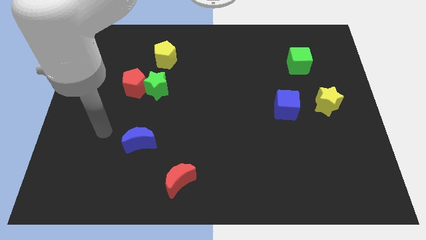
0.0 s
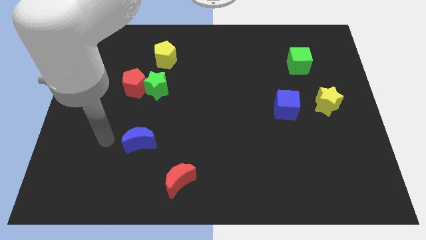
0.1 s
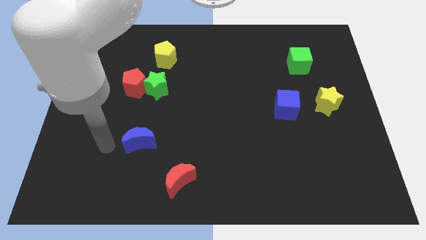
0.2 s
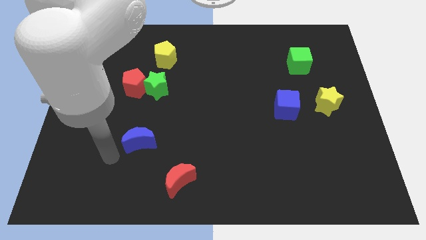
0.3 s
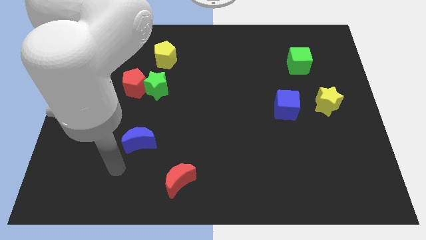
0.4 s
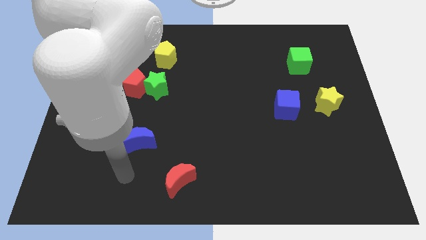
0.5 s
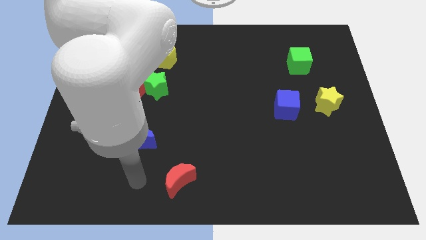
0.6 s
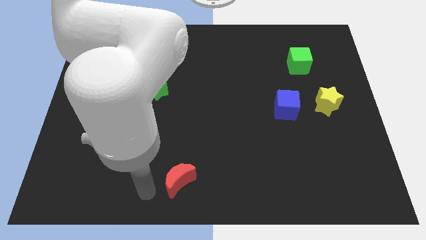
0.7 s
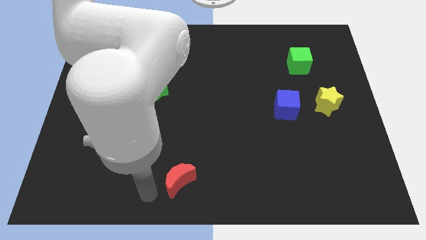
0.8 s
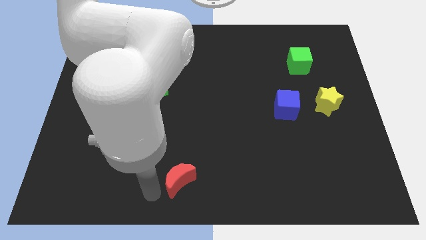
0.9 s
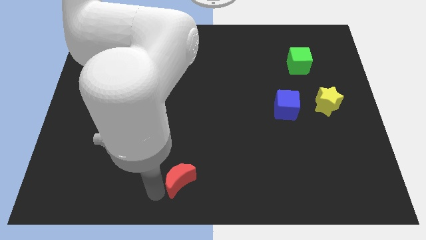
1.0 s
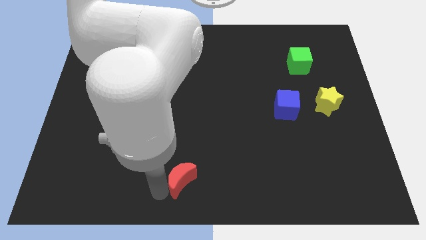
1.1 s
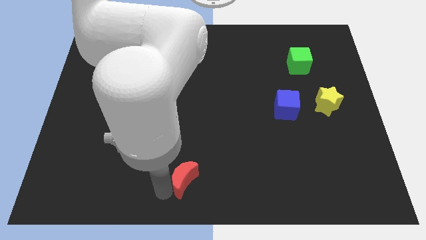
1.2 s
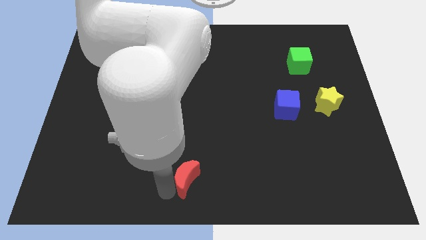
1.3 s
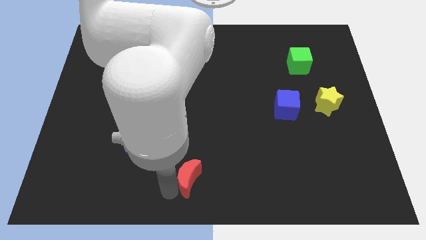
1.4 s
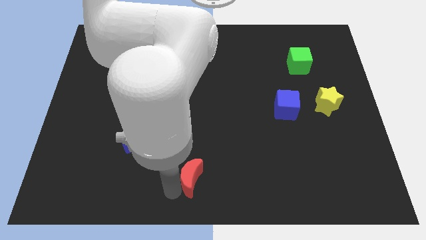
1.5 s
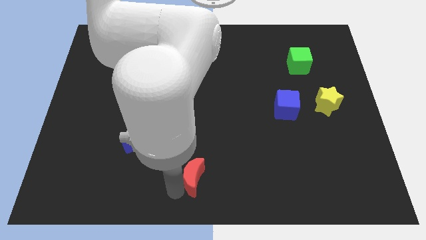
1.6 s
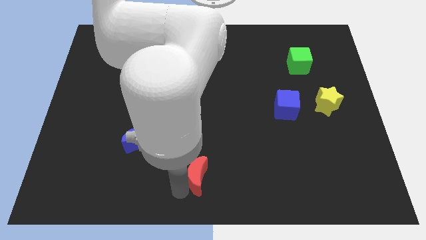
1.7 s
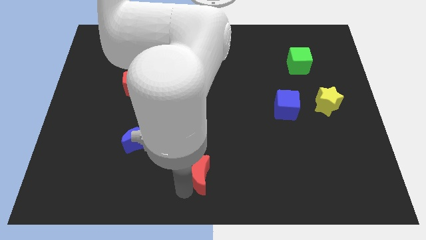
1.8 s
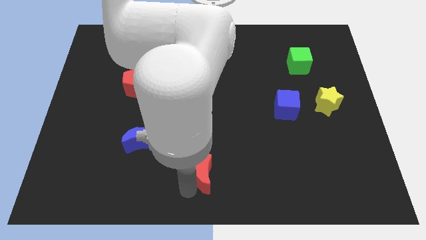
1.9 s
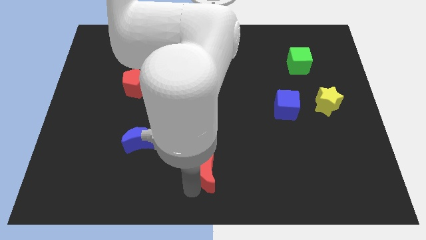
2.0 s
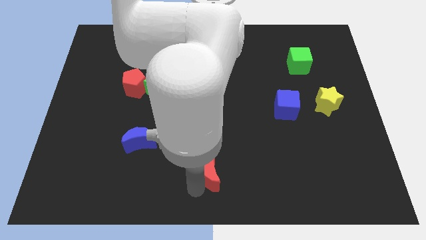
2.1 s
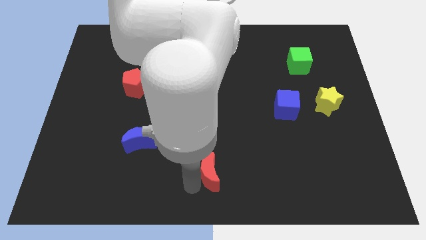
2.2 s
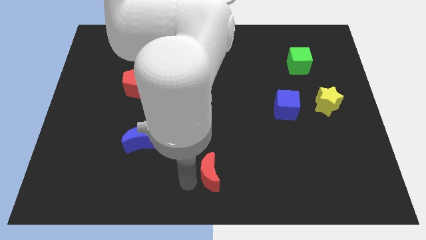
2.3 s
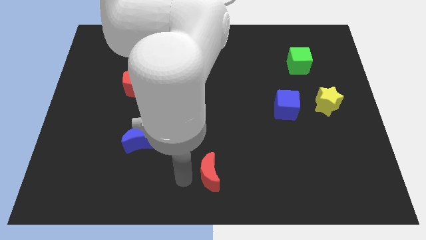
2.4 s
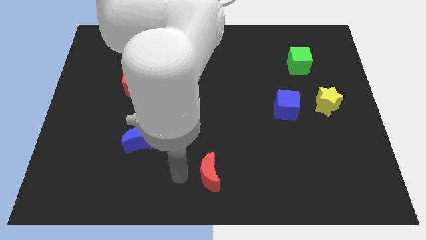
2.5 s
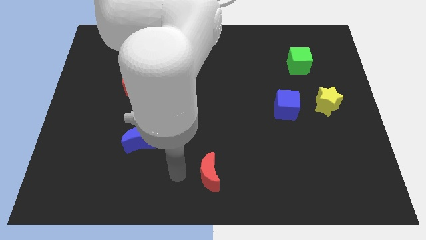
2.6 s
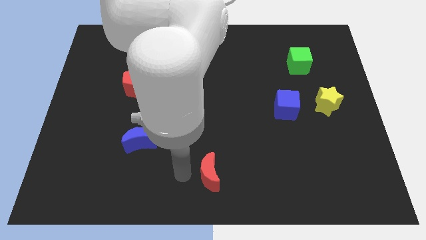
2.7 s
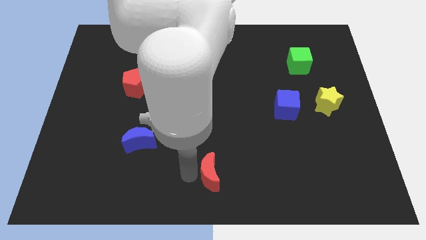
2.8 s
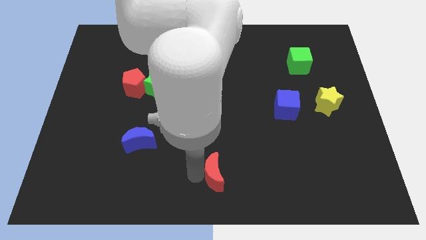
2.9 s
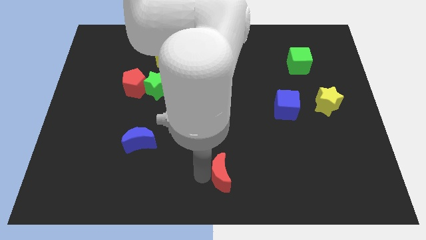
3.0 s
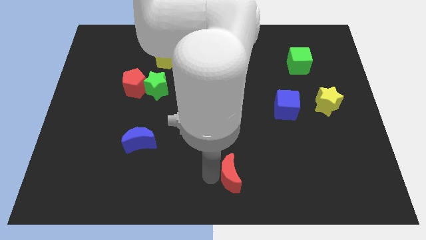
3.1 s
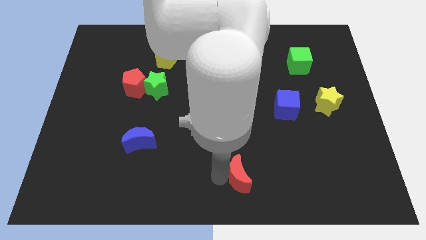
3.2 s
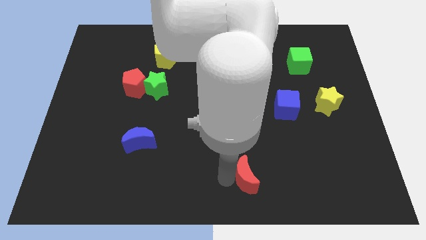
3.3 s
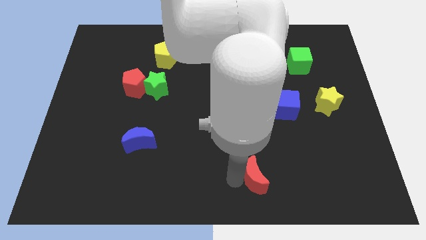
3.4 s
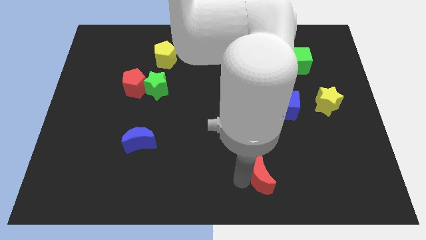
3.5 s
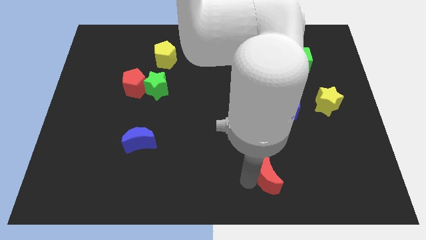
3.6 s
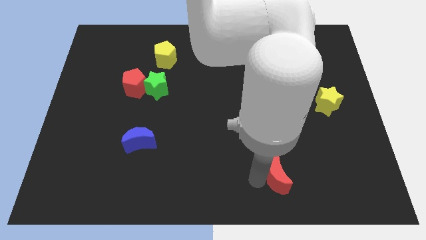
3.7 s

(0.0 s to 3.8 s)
slide the red moon right

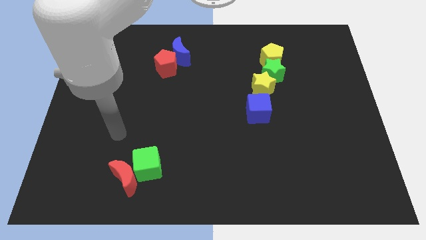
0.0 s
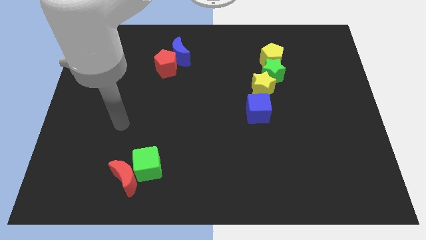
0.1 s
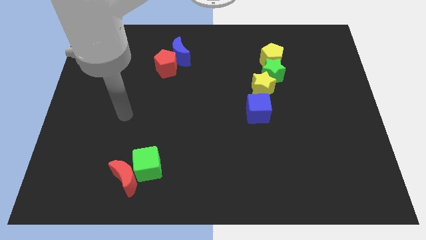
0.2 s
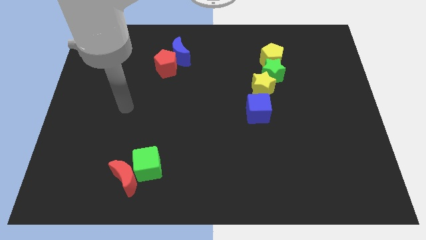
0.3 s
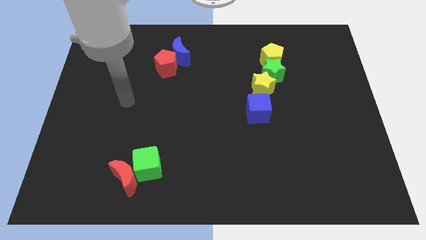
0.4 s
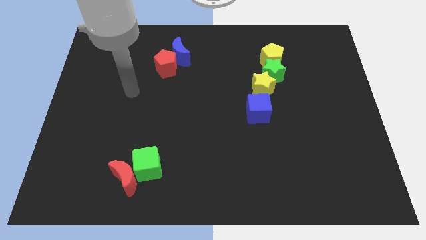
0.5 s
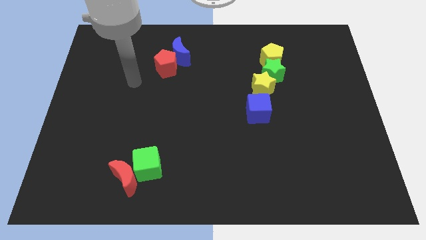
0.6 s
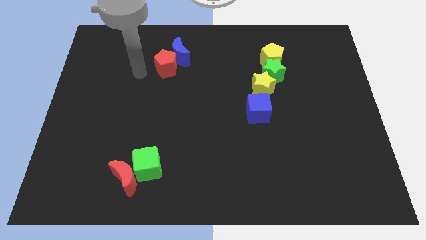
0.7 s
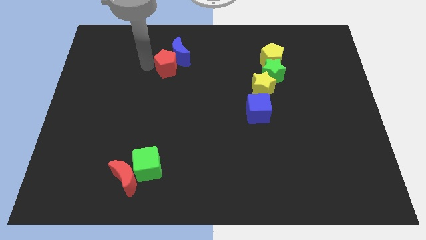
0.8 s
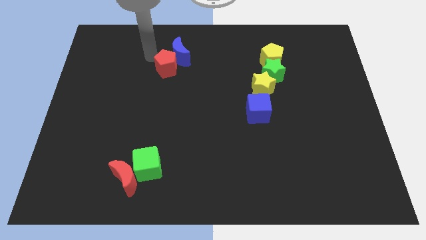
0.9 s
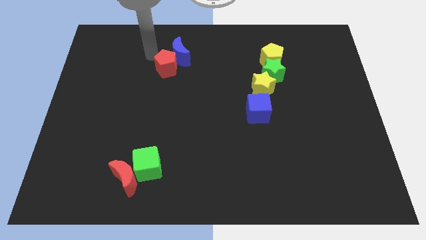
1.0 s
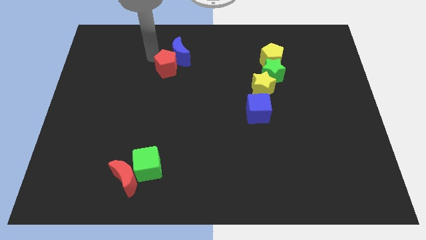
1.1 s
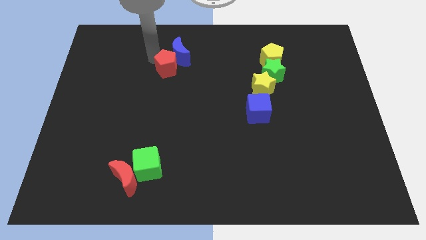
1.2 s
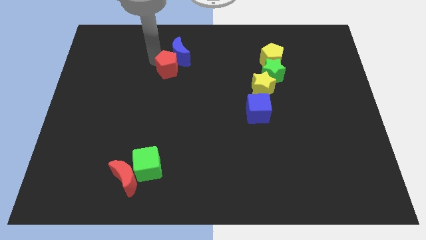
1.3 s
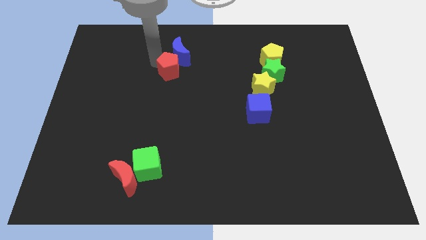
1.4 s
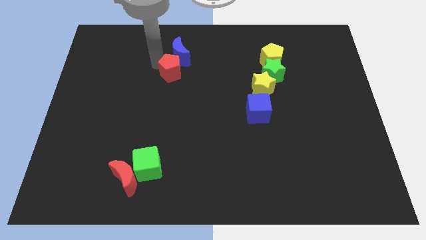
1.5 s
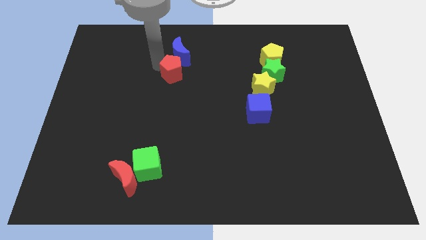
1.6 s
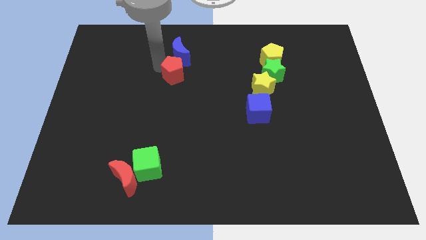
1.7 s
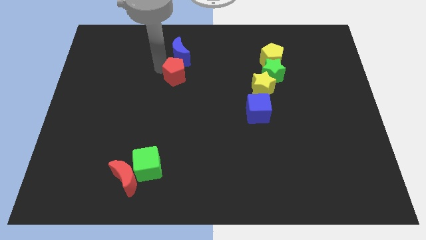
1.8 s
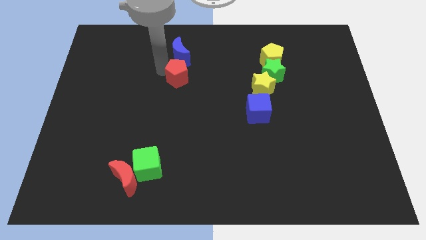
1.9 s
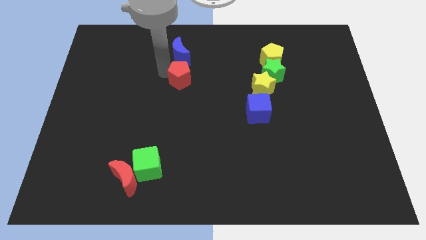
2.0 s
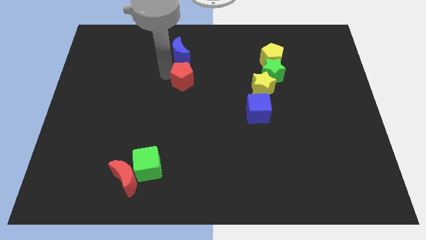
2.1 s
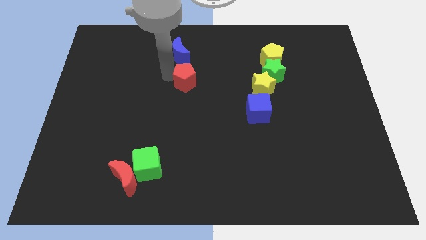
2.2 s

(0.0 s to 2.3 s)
slide the red pentagon diagonally downwards and right a bit

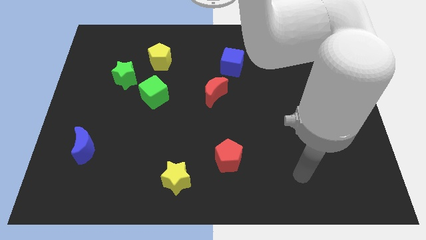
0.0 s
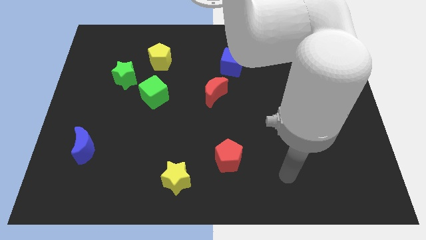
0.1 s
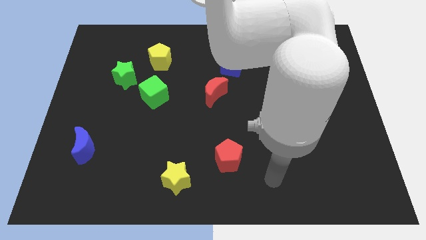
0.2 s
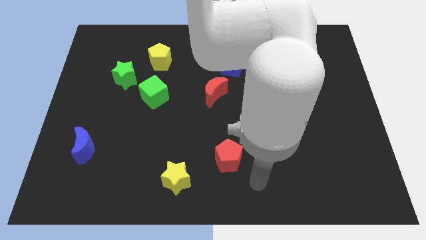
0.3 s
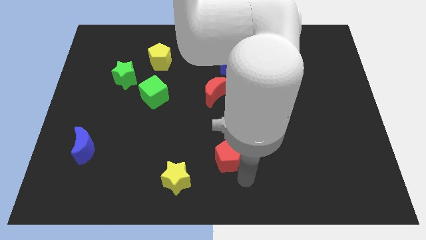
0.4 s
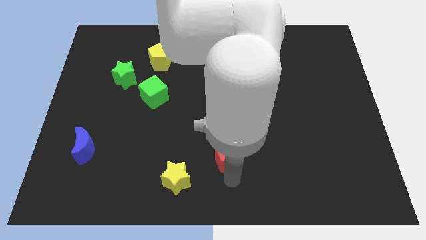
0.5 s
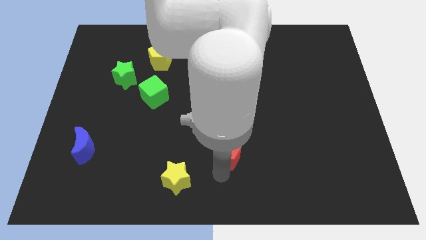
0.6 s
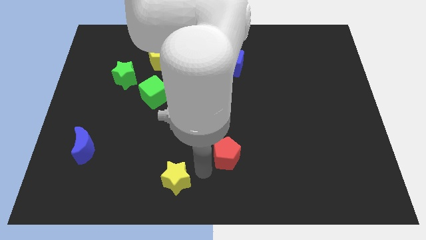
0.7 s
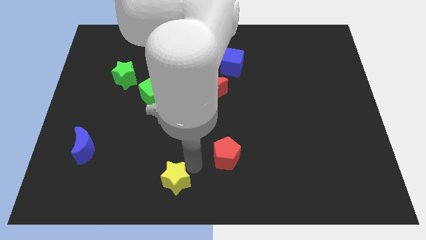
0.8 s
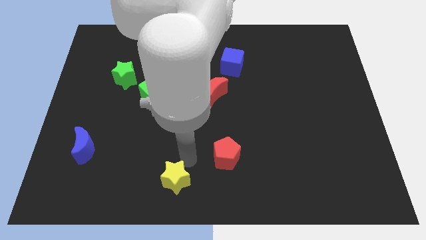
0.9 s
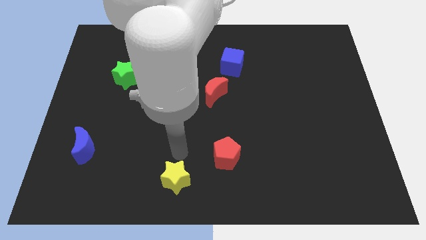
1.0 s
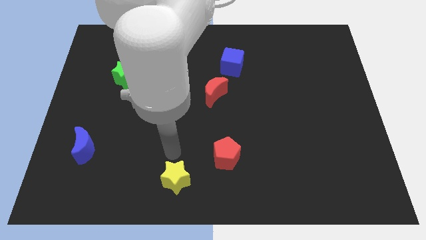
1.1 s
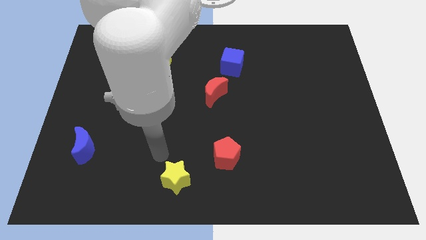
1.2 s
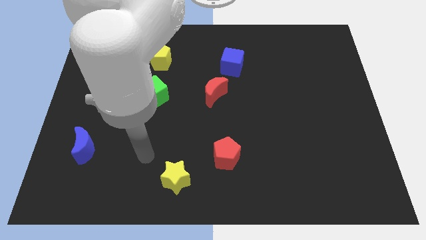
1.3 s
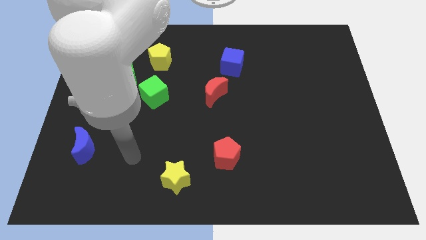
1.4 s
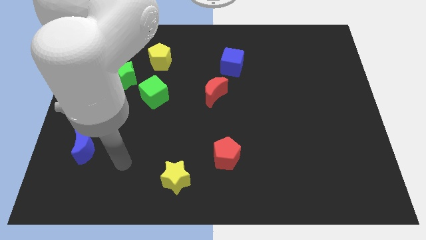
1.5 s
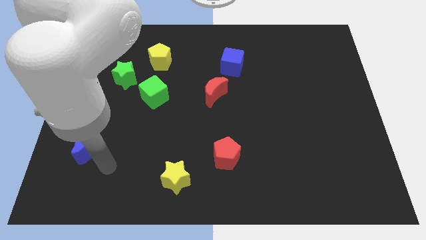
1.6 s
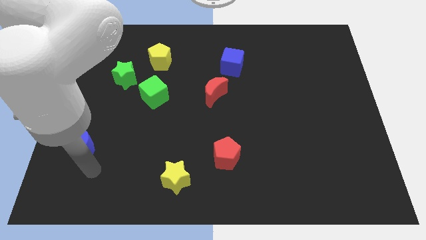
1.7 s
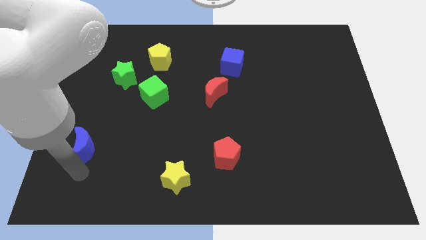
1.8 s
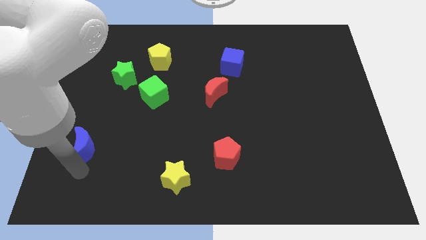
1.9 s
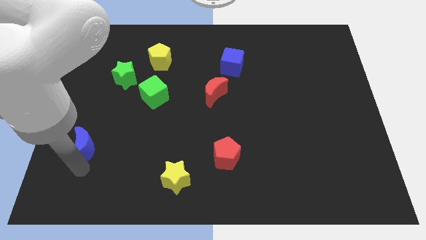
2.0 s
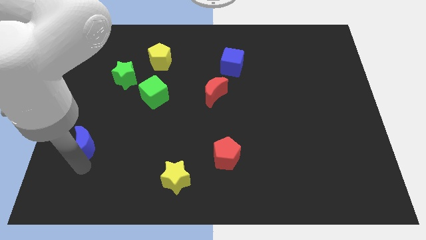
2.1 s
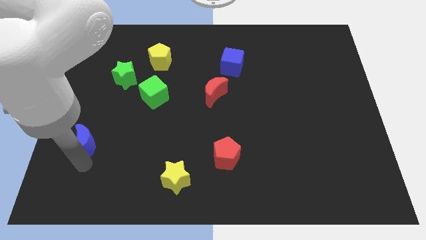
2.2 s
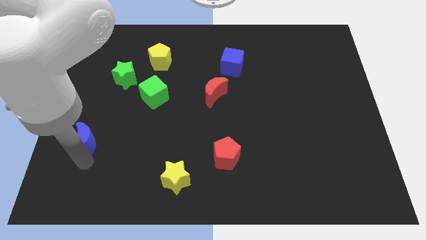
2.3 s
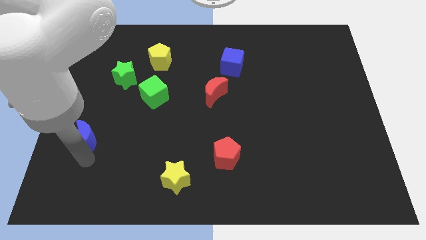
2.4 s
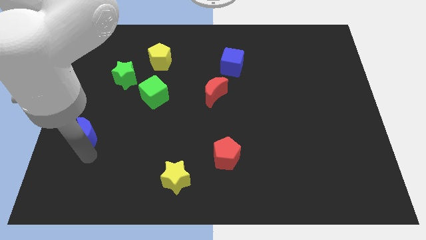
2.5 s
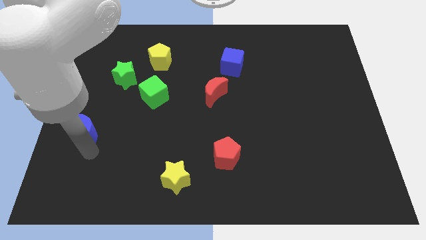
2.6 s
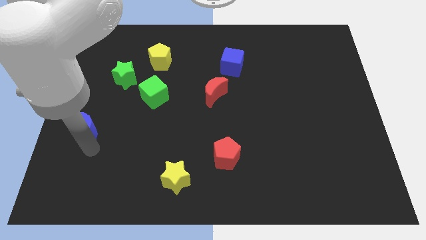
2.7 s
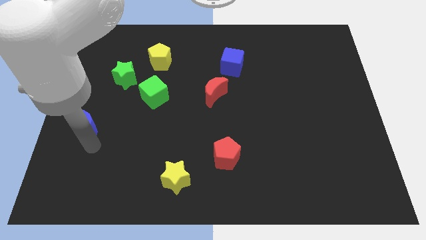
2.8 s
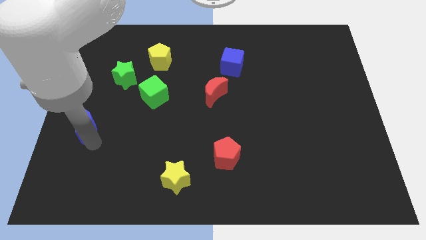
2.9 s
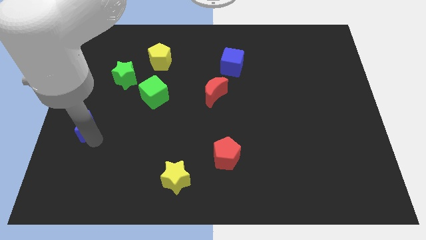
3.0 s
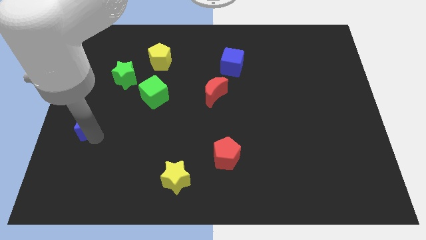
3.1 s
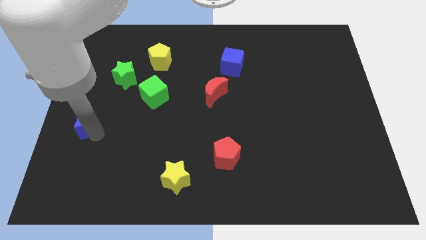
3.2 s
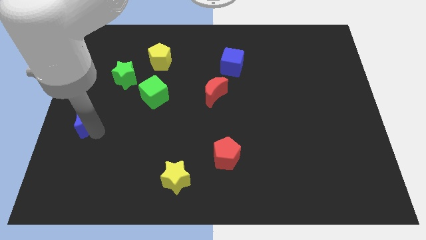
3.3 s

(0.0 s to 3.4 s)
move the blue moon slightly up
